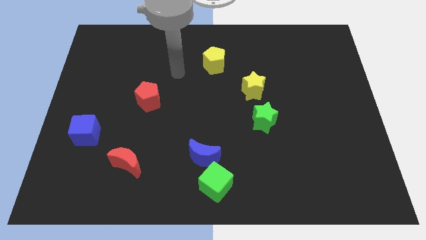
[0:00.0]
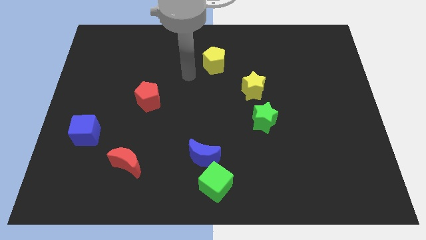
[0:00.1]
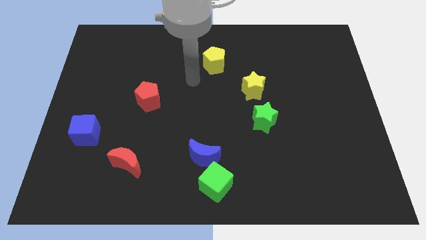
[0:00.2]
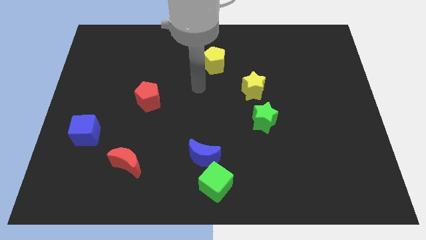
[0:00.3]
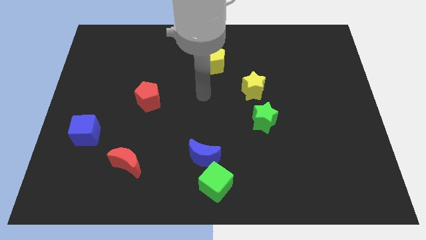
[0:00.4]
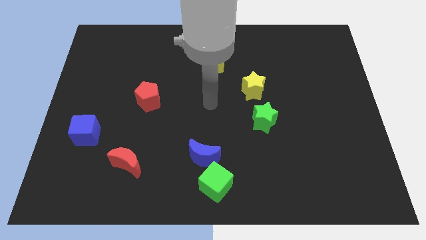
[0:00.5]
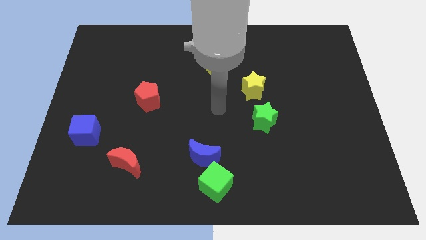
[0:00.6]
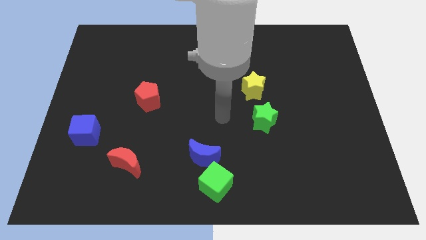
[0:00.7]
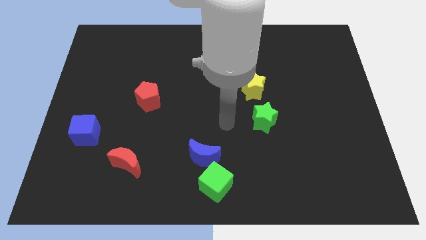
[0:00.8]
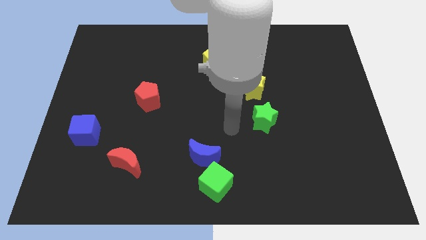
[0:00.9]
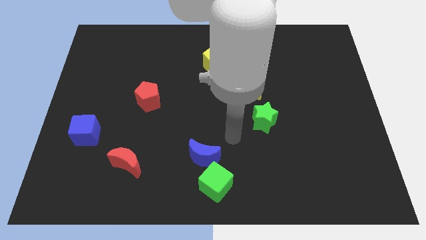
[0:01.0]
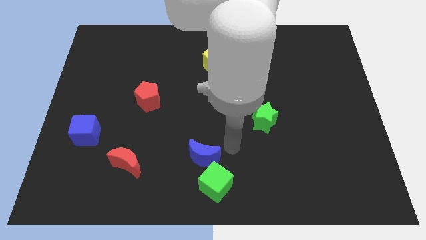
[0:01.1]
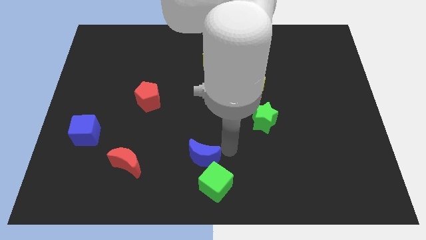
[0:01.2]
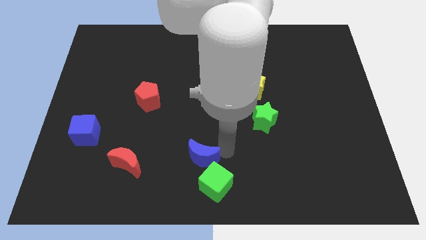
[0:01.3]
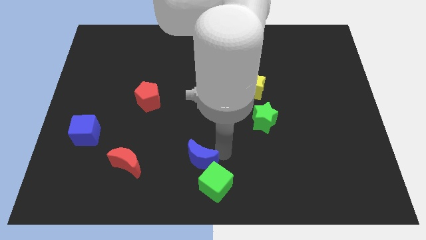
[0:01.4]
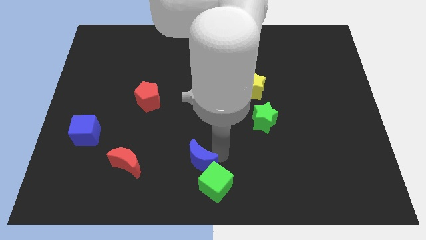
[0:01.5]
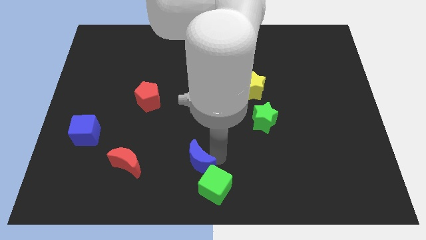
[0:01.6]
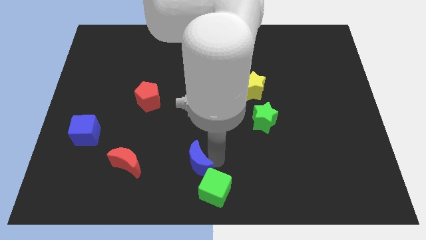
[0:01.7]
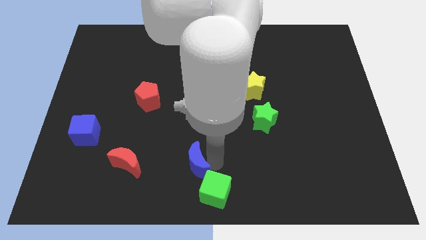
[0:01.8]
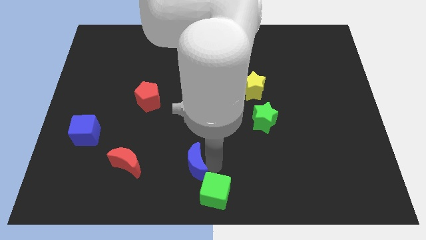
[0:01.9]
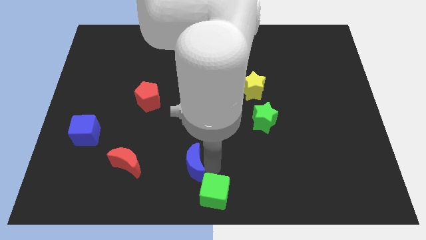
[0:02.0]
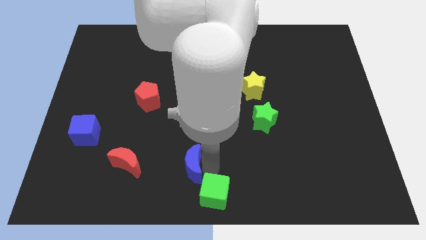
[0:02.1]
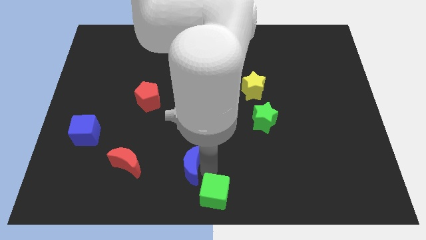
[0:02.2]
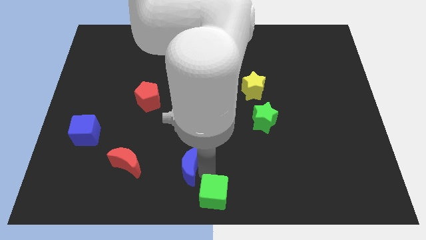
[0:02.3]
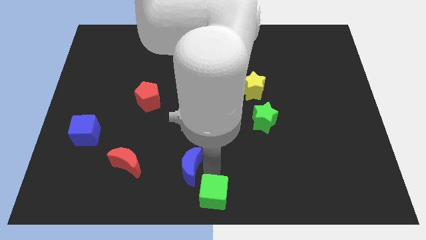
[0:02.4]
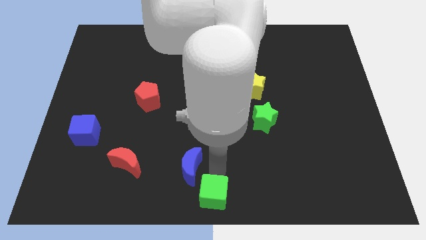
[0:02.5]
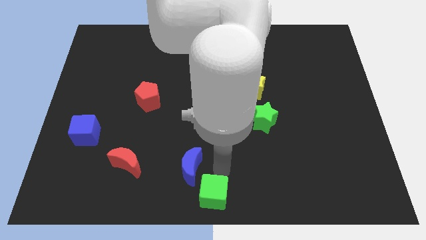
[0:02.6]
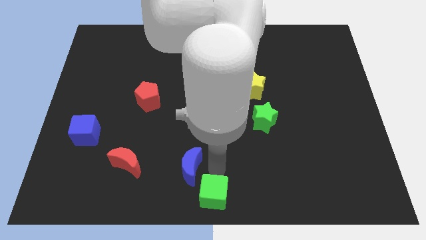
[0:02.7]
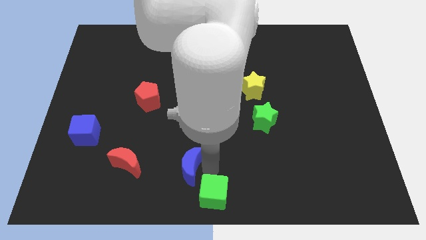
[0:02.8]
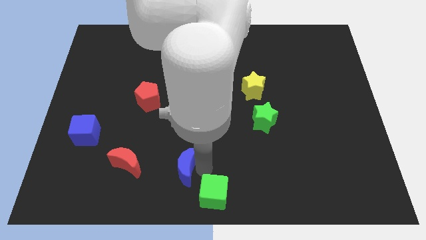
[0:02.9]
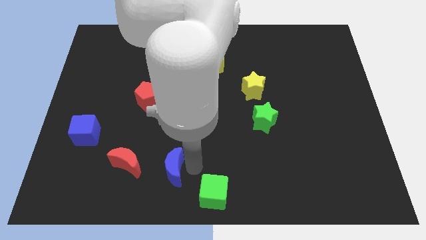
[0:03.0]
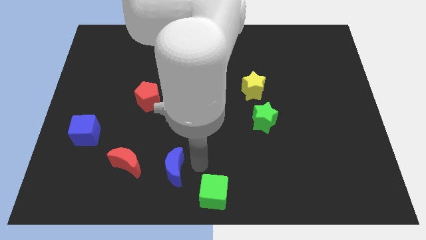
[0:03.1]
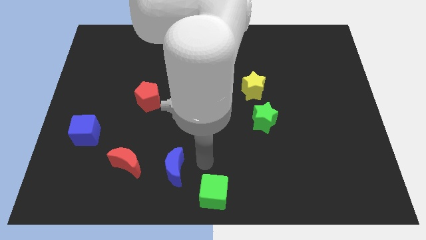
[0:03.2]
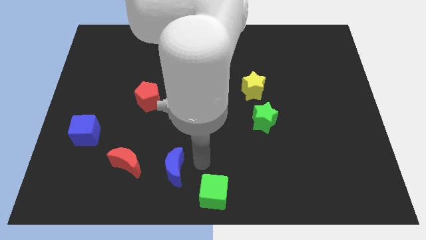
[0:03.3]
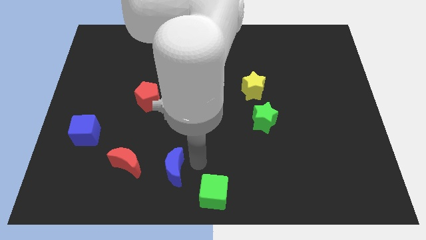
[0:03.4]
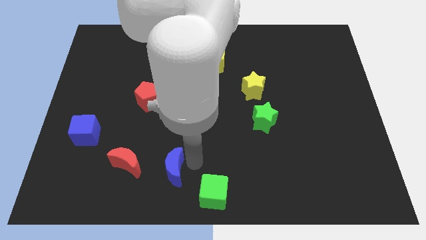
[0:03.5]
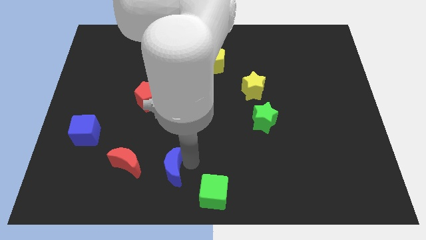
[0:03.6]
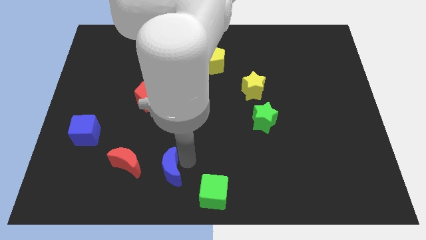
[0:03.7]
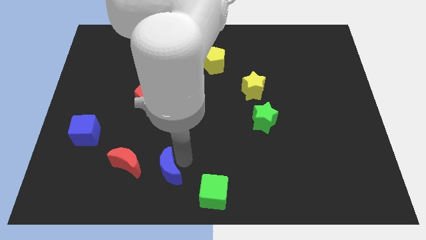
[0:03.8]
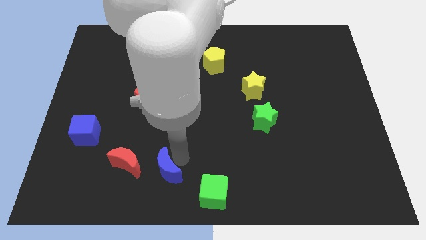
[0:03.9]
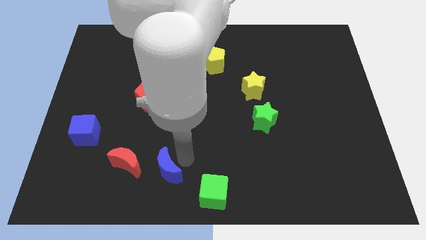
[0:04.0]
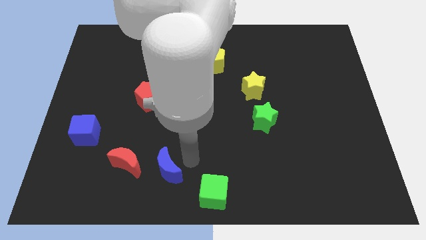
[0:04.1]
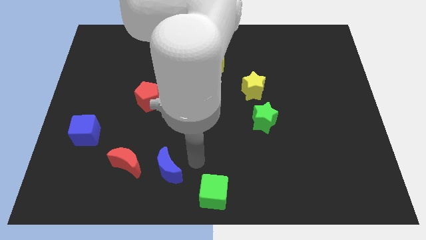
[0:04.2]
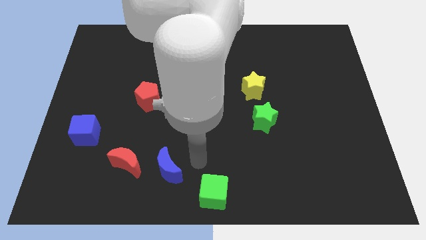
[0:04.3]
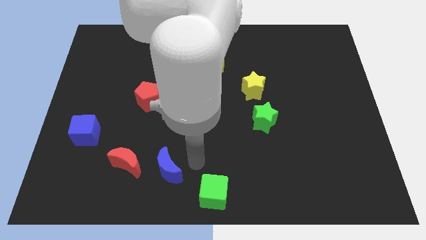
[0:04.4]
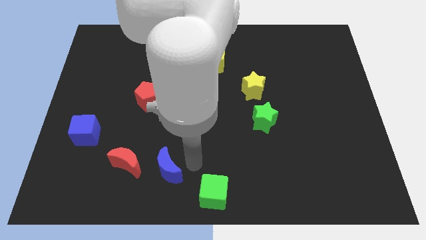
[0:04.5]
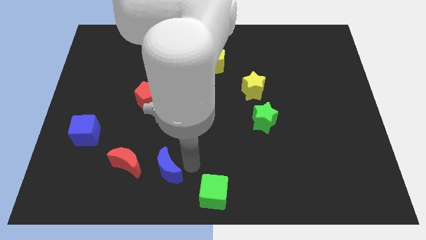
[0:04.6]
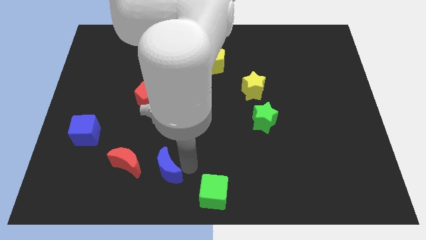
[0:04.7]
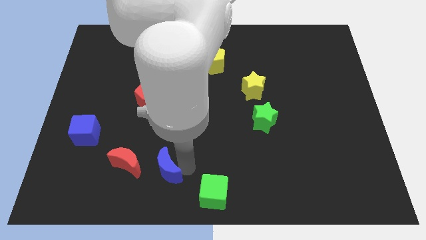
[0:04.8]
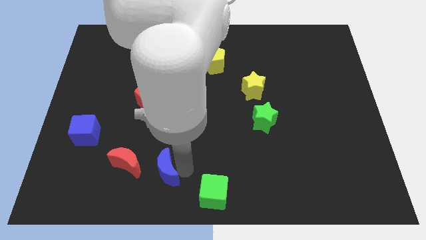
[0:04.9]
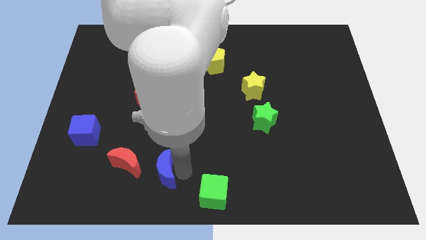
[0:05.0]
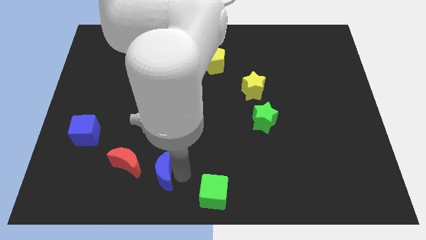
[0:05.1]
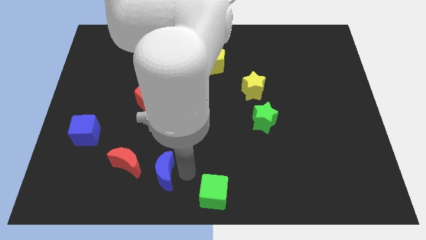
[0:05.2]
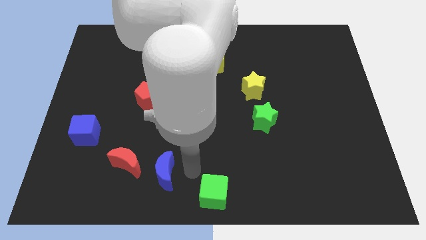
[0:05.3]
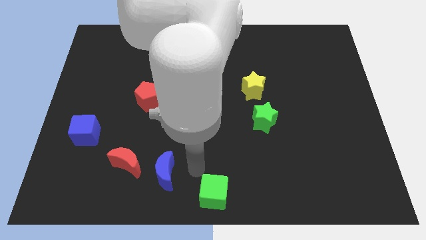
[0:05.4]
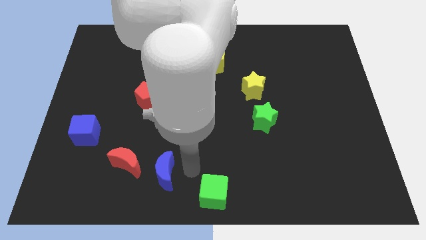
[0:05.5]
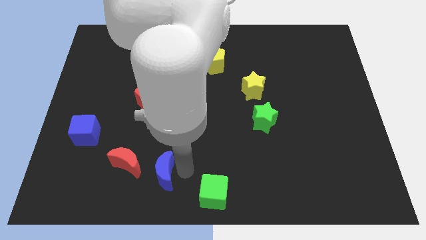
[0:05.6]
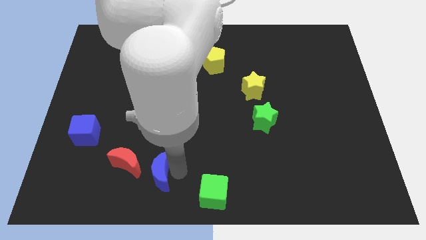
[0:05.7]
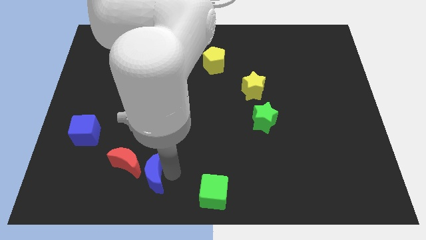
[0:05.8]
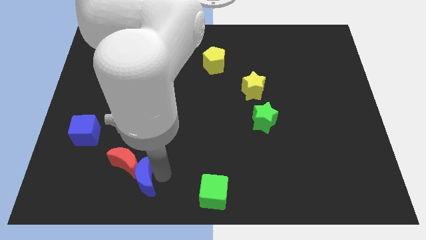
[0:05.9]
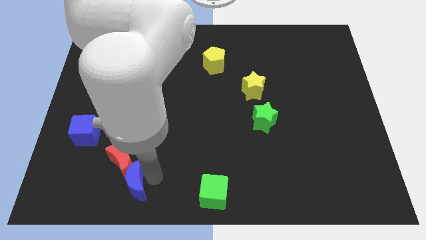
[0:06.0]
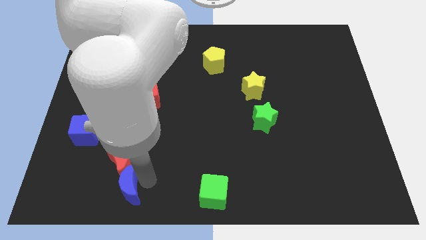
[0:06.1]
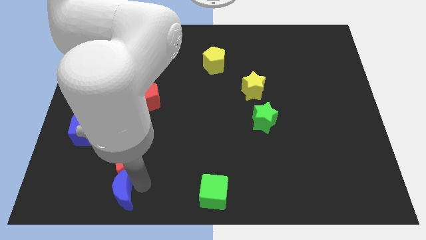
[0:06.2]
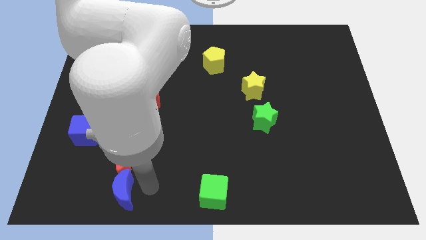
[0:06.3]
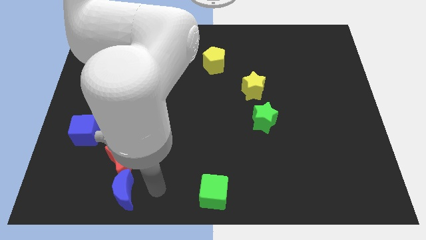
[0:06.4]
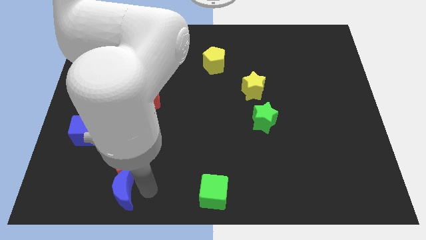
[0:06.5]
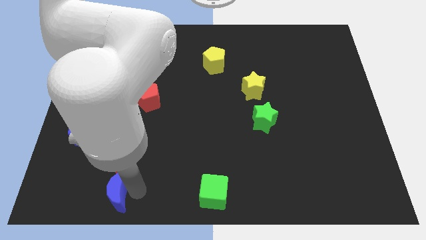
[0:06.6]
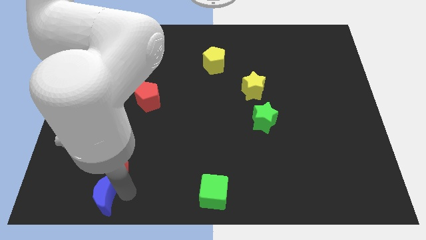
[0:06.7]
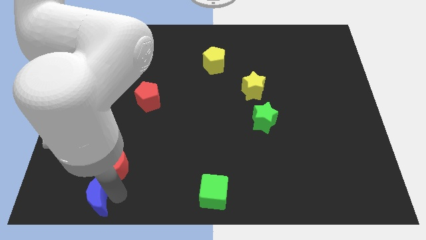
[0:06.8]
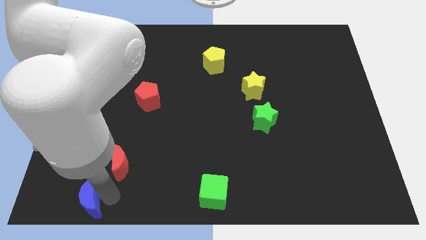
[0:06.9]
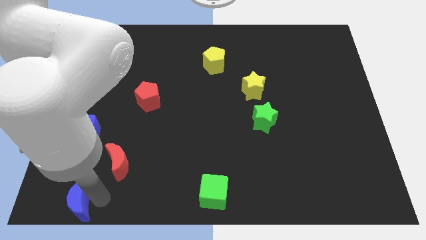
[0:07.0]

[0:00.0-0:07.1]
move the blue moon to the bottom left corner
